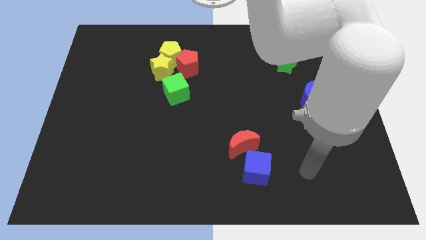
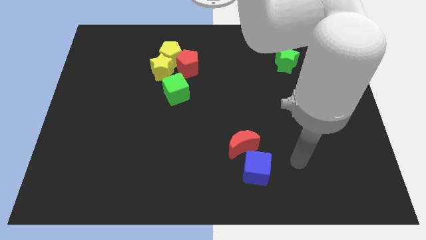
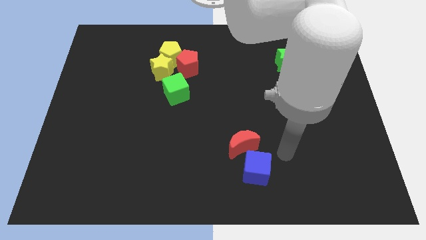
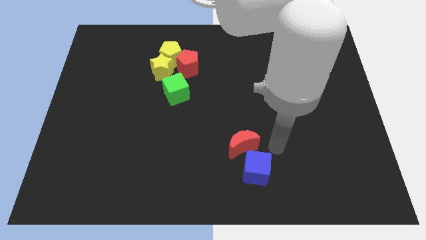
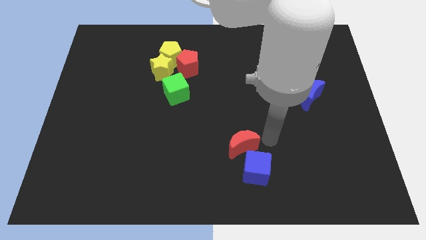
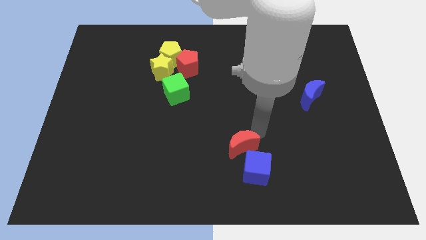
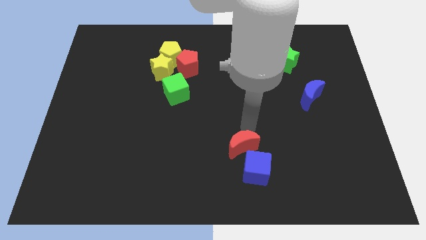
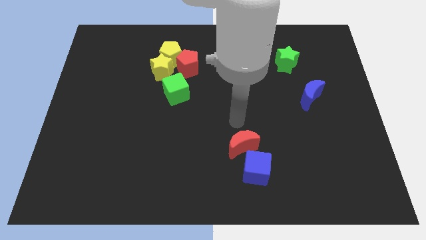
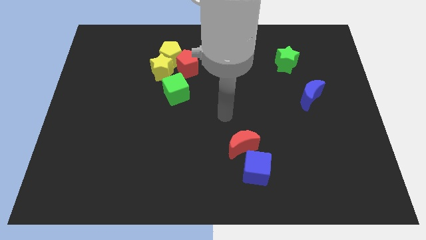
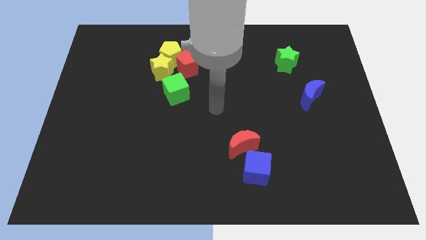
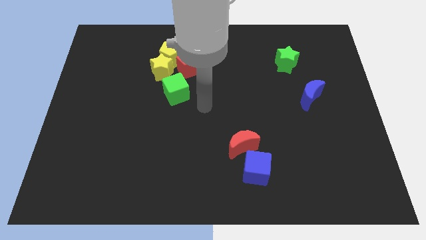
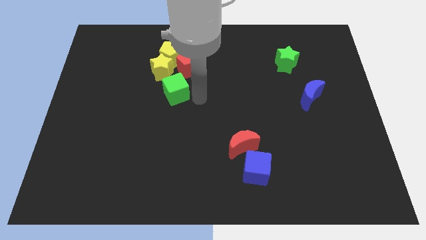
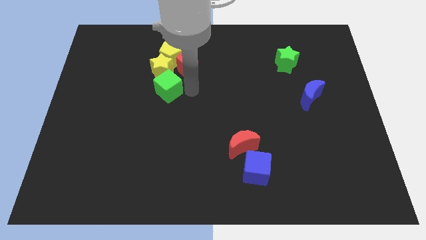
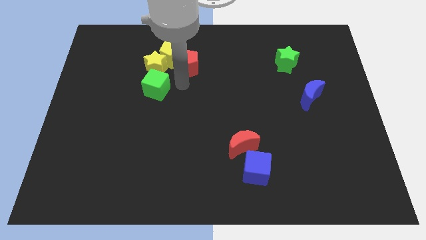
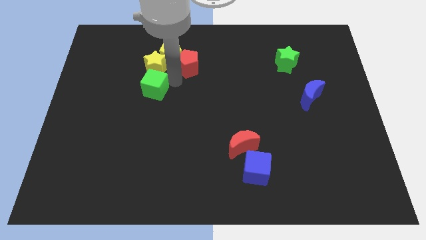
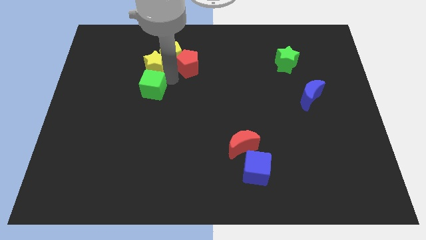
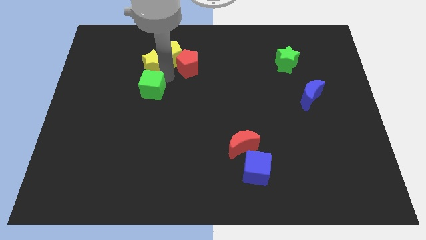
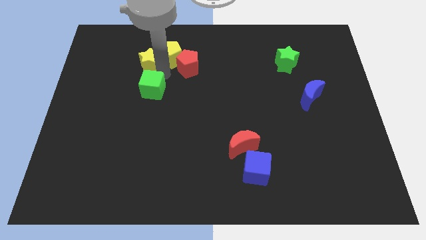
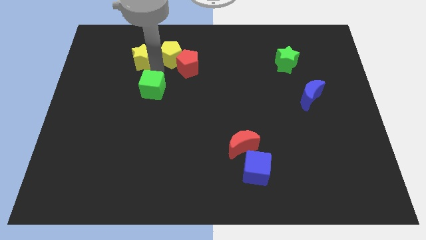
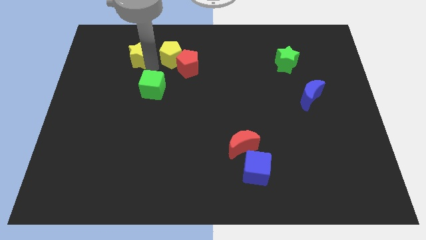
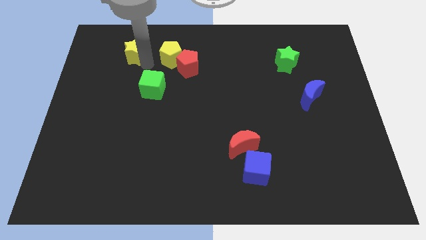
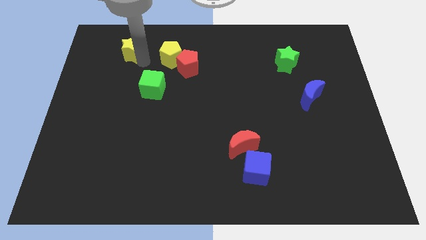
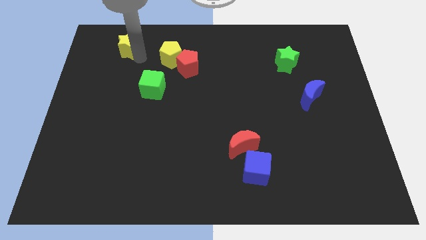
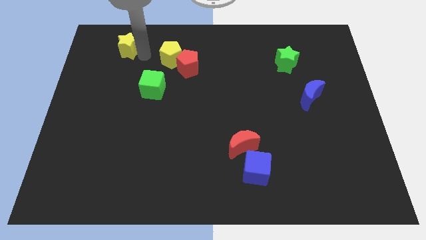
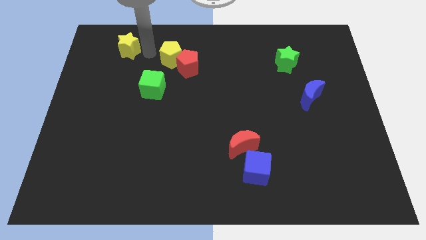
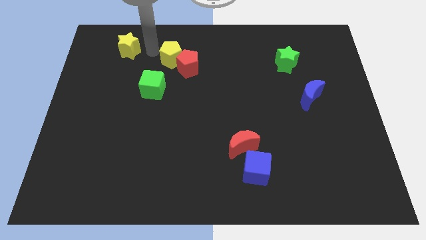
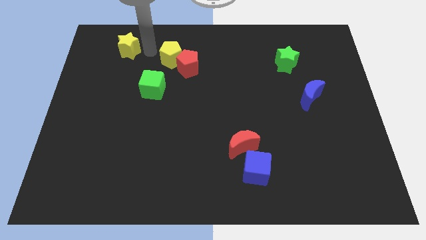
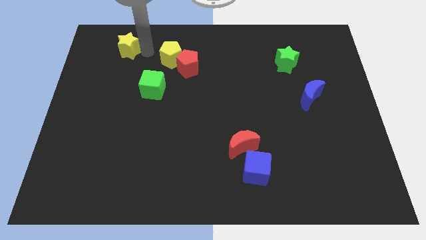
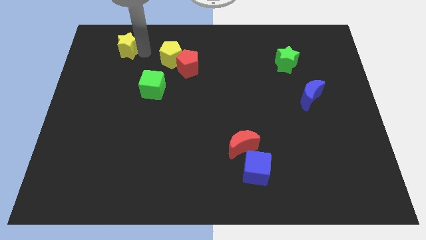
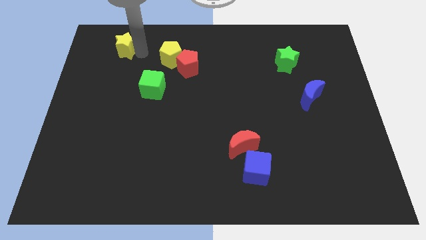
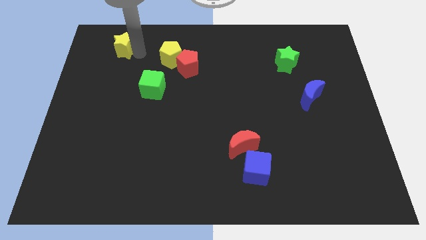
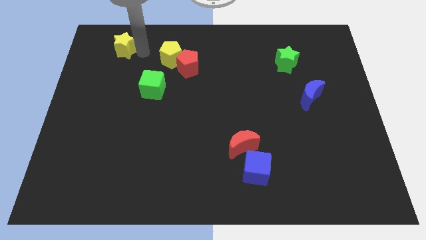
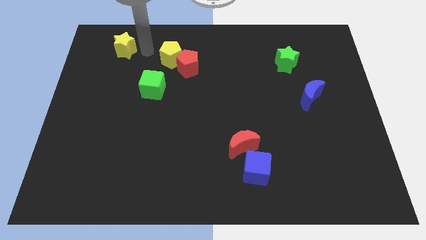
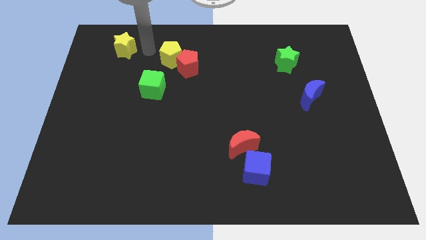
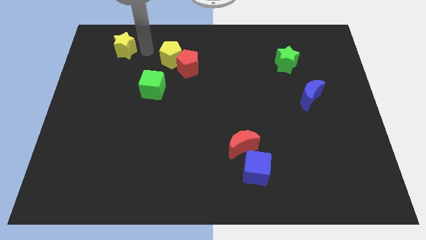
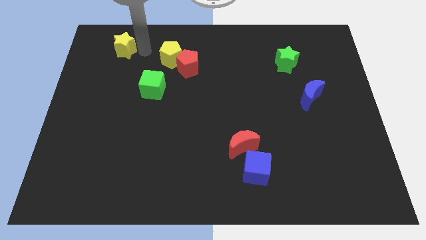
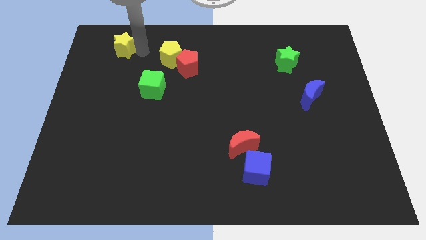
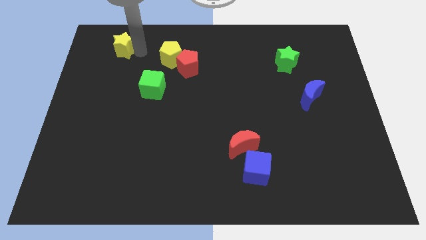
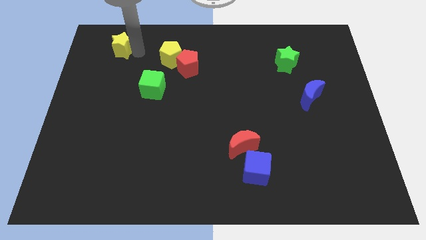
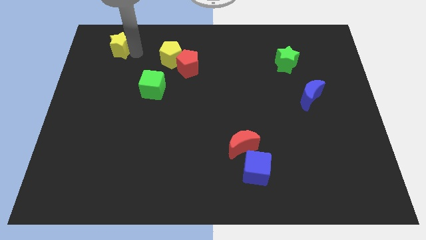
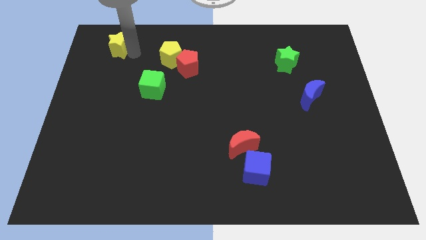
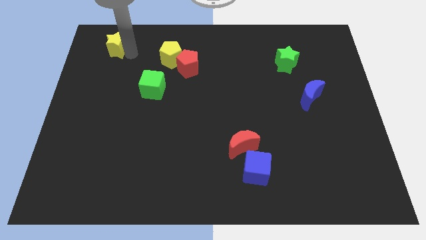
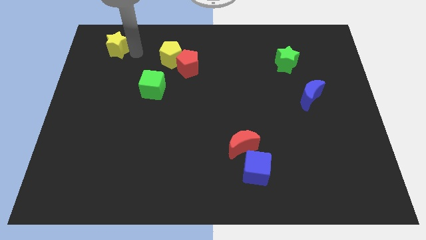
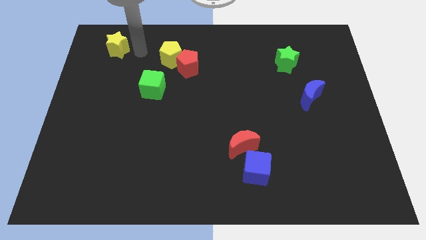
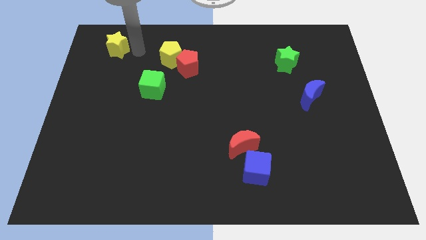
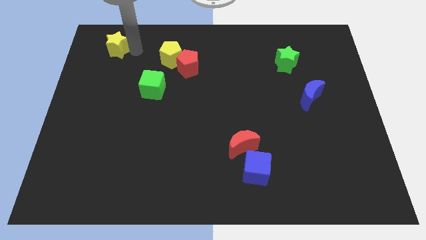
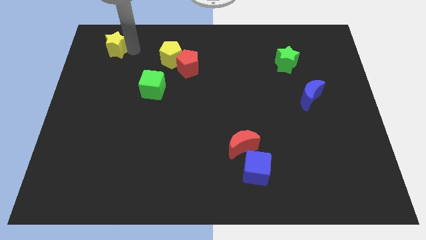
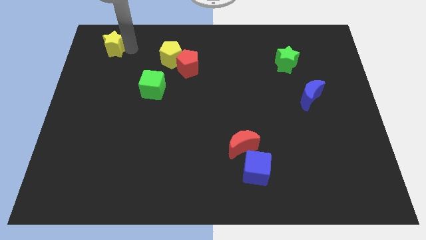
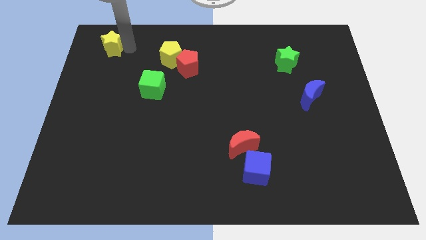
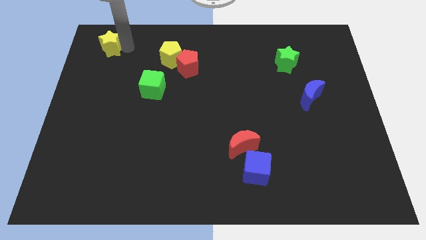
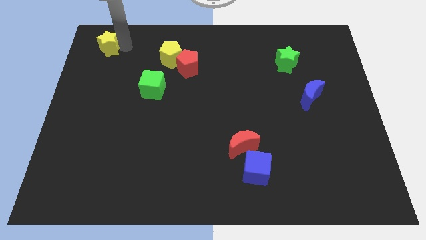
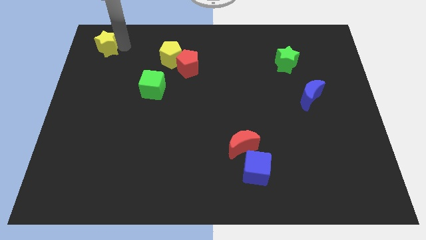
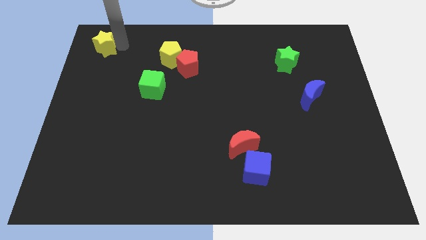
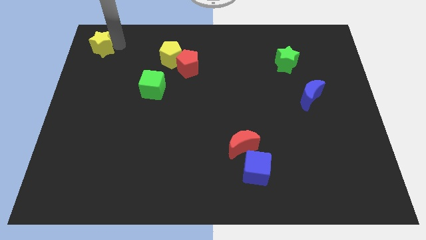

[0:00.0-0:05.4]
put the yellow star to the top left of the board
